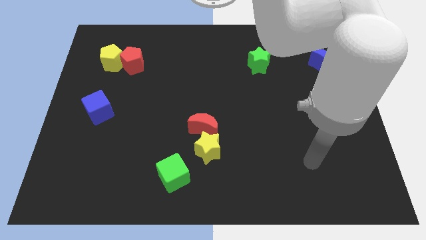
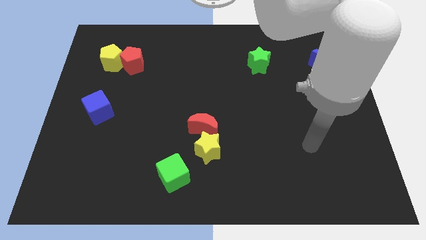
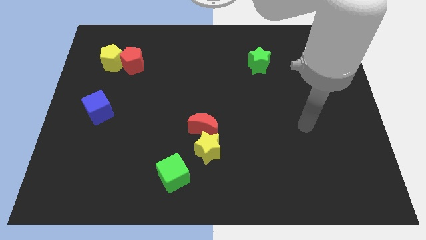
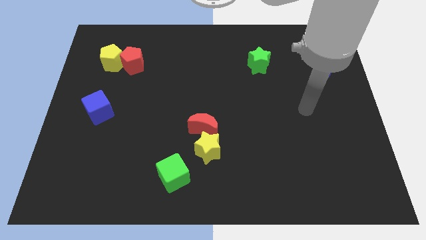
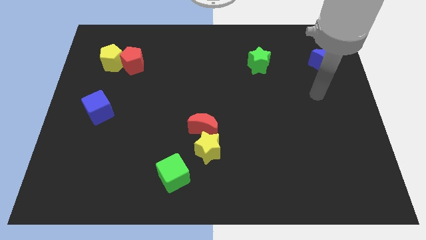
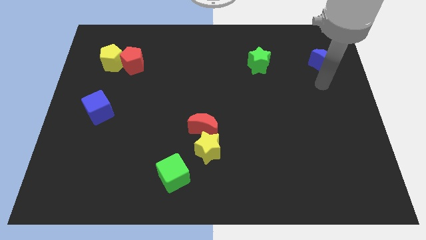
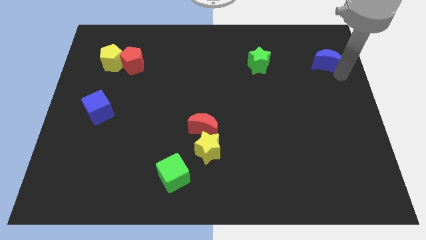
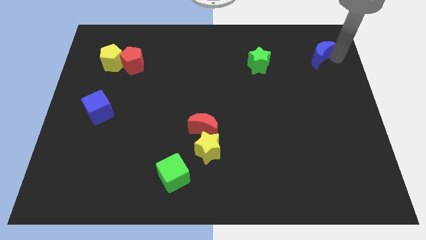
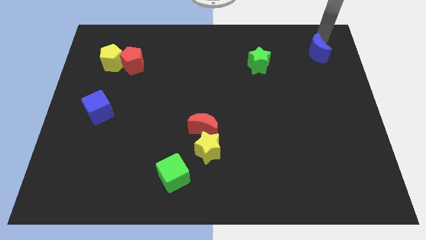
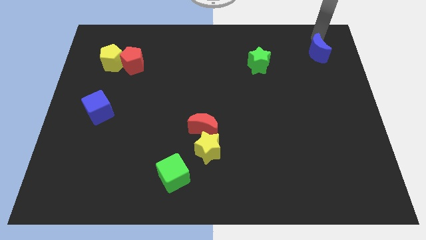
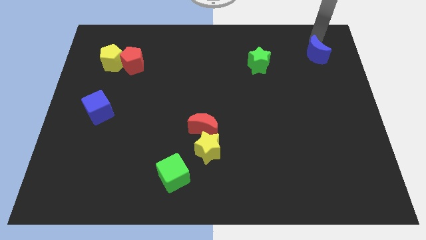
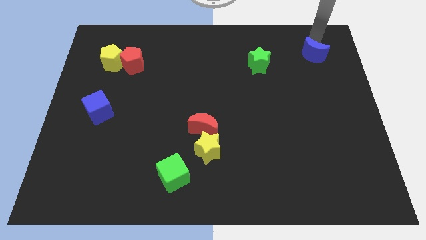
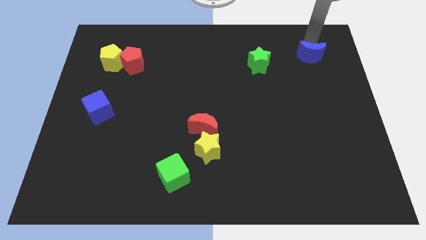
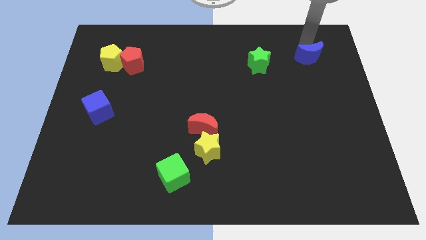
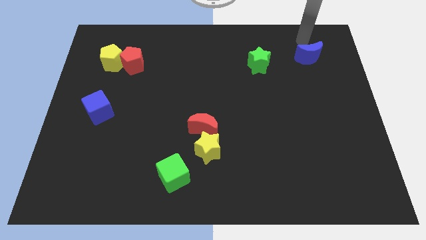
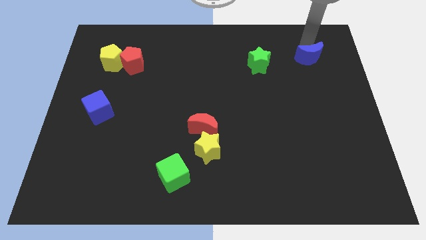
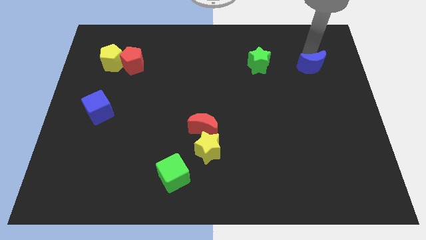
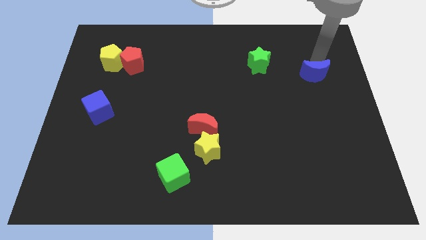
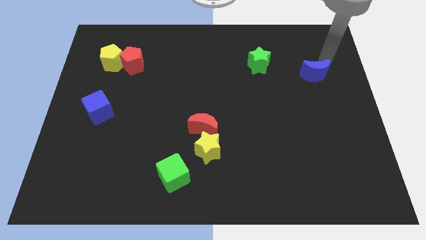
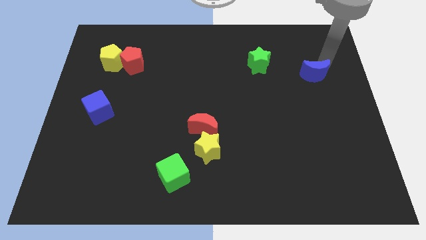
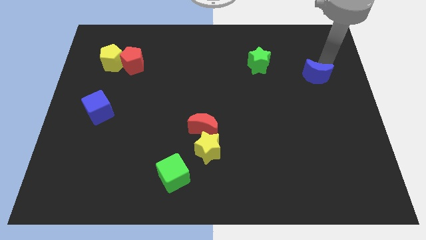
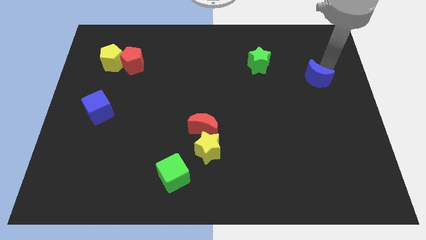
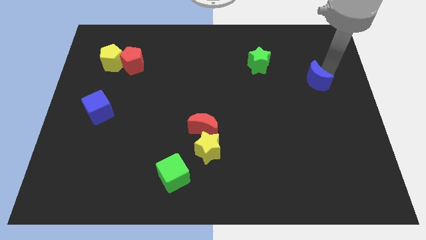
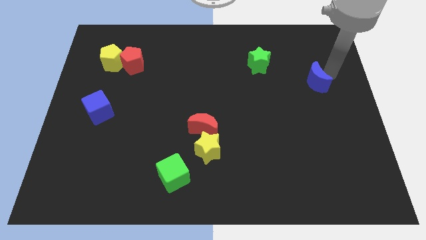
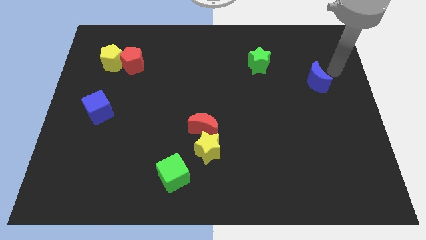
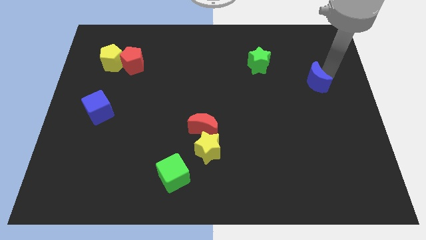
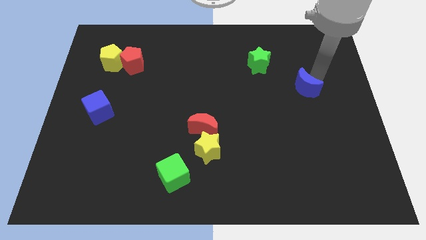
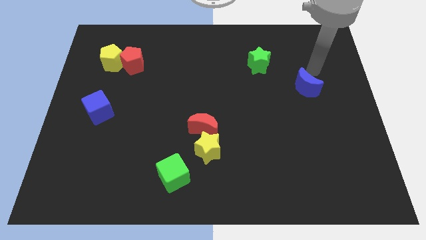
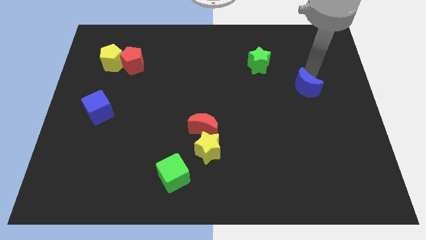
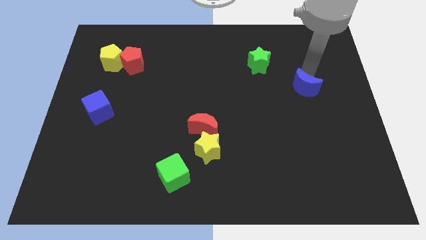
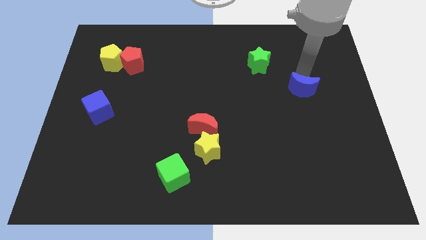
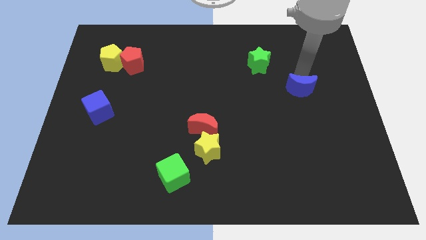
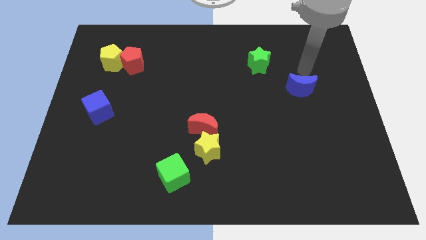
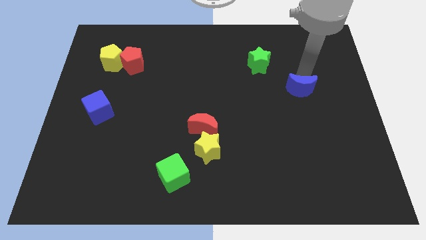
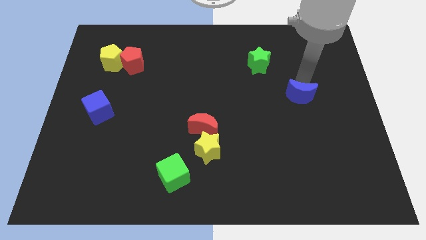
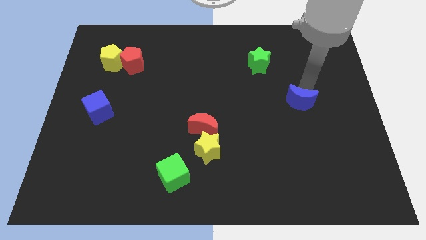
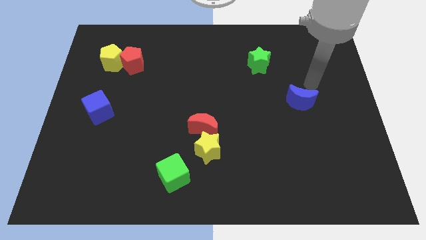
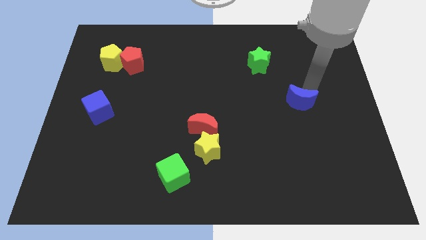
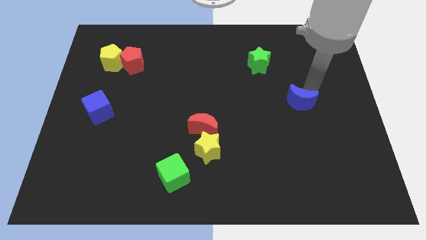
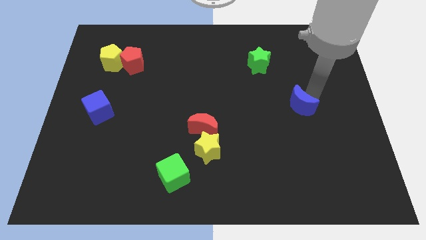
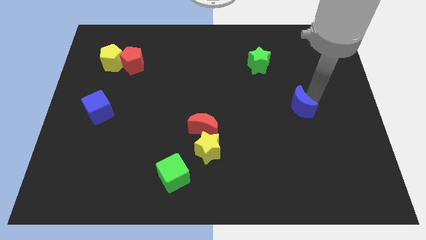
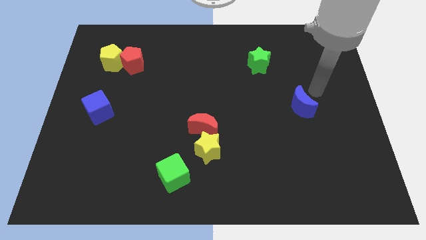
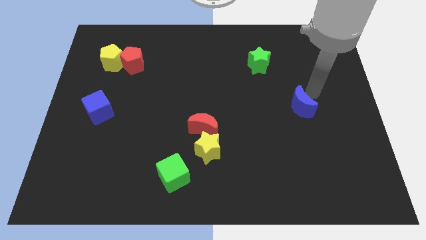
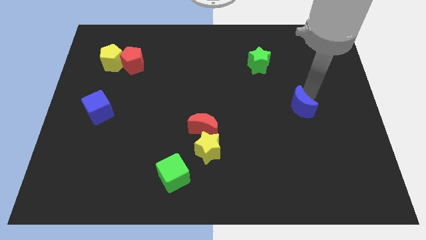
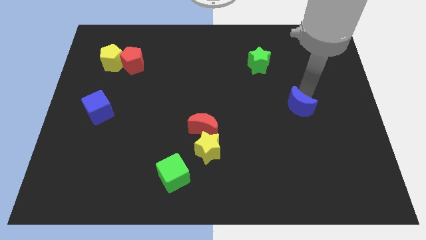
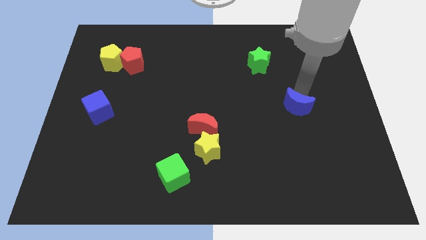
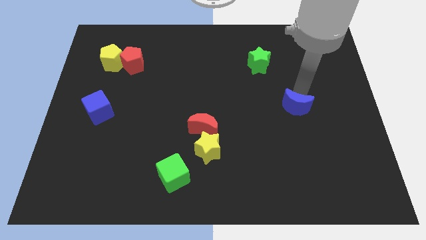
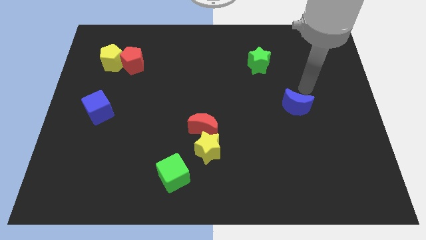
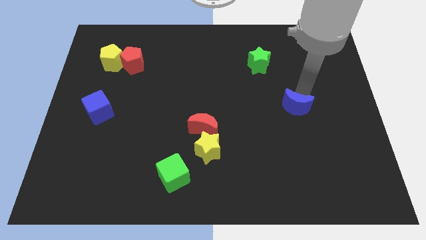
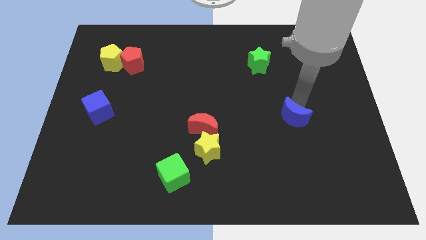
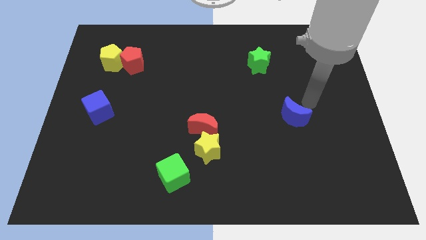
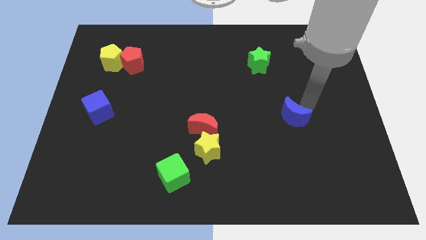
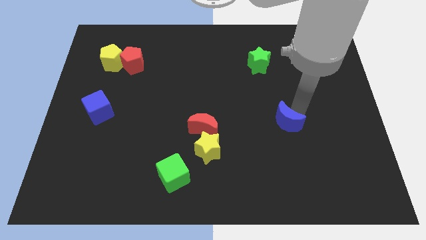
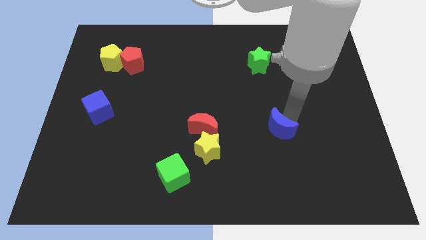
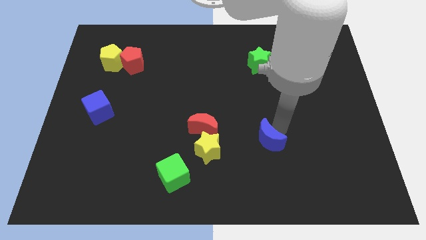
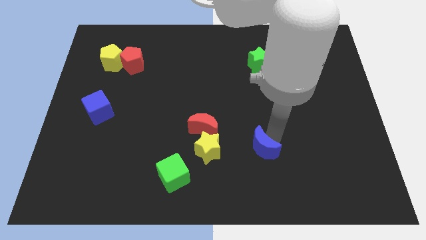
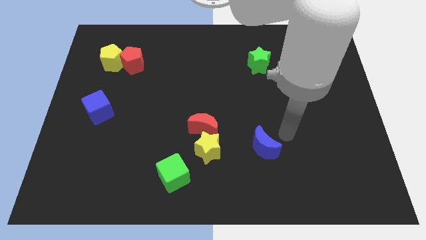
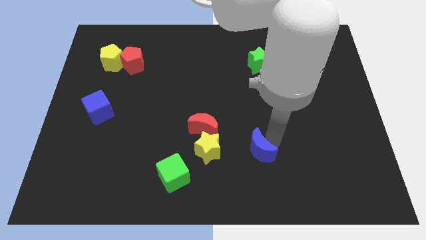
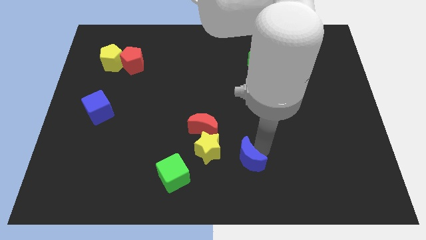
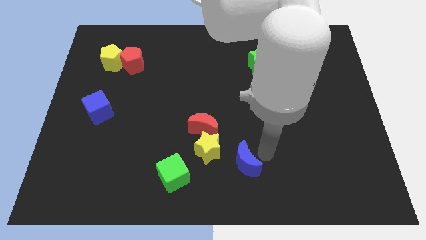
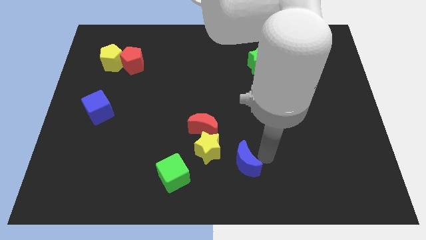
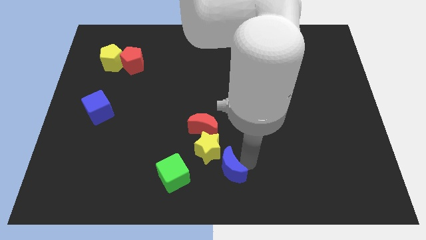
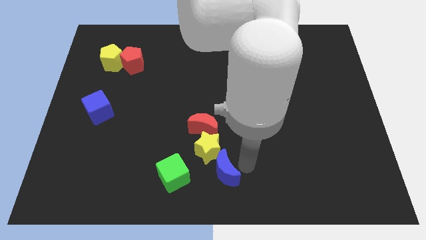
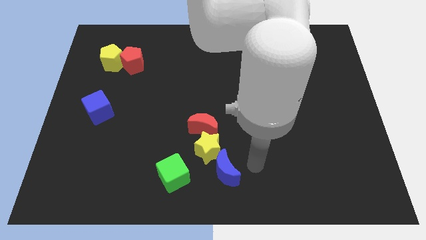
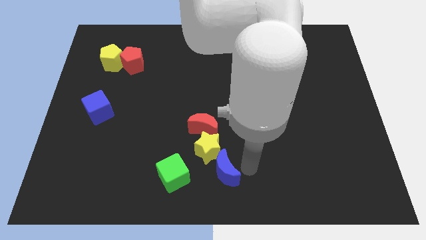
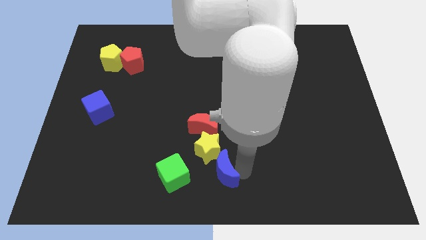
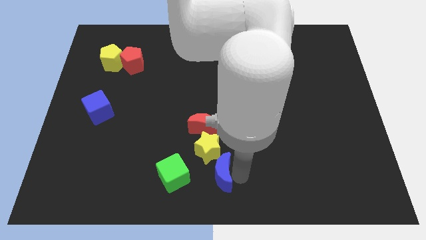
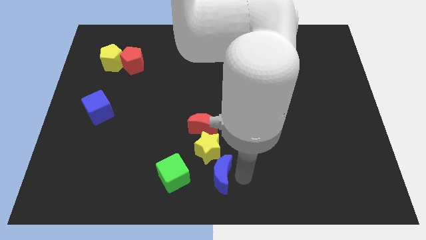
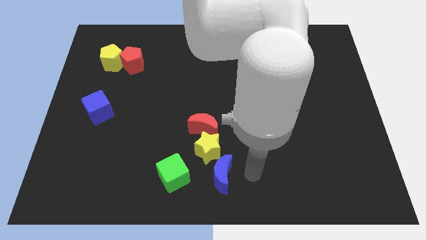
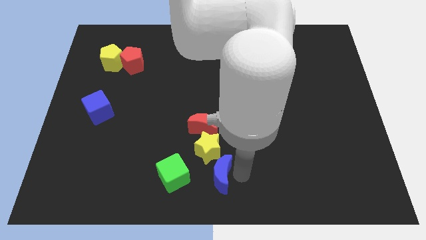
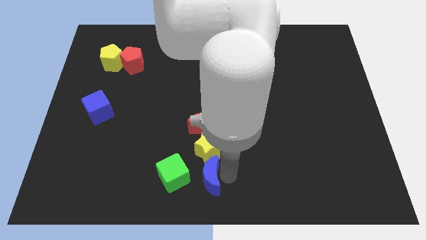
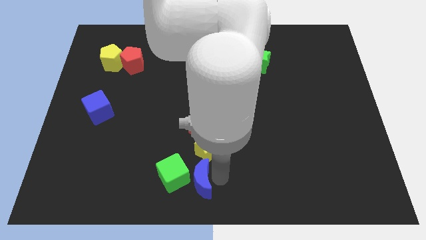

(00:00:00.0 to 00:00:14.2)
push the blue moon towards the green cube
